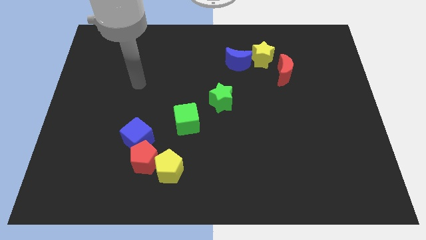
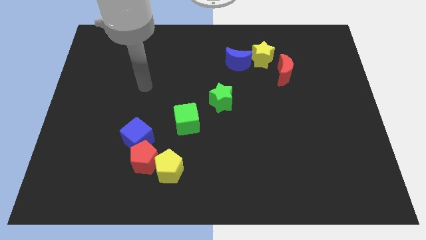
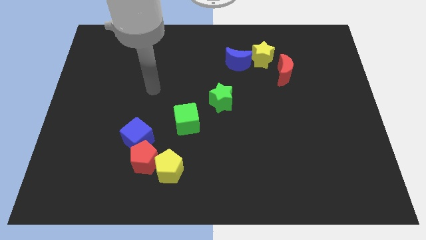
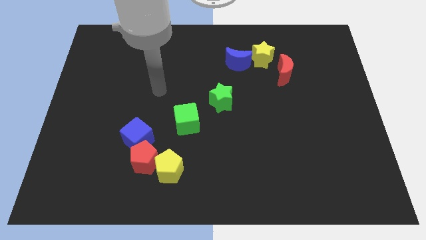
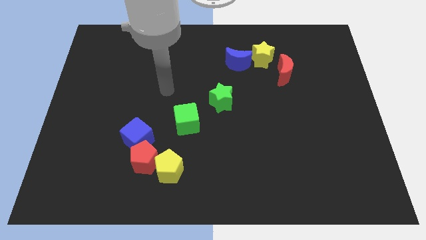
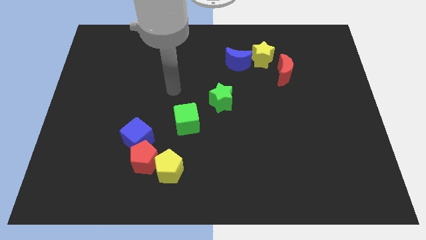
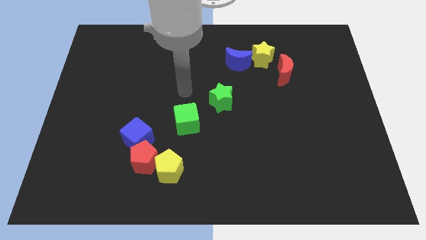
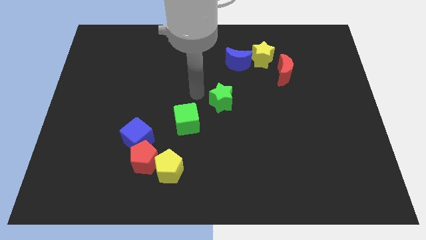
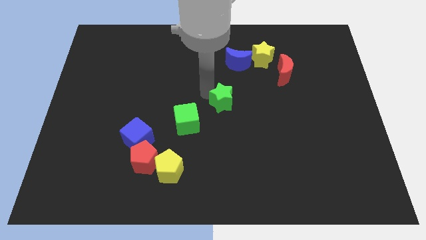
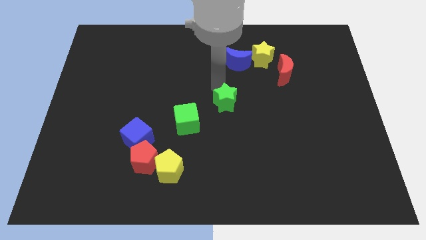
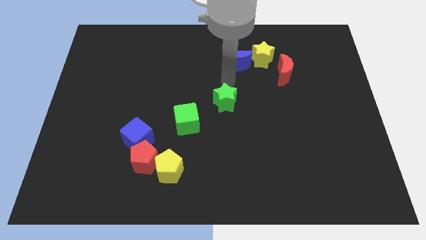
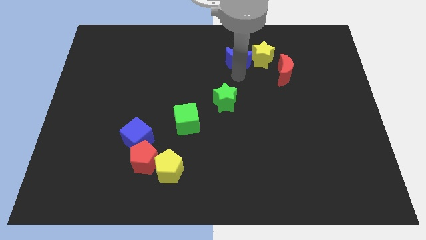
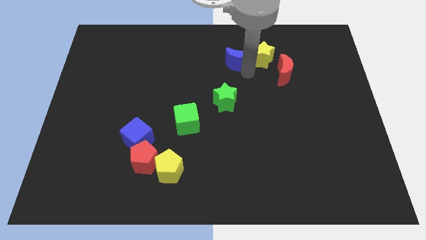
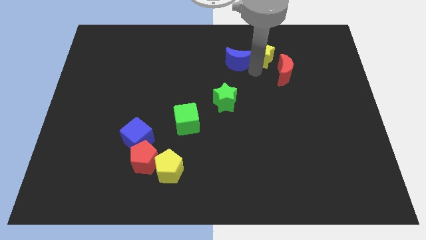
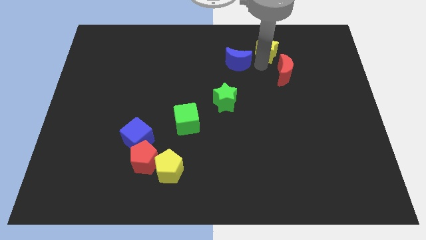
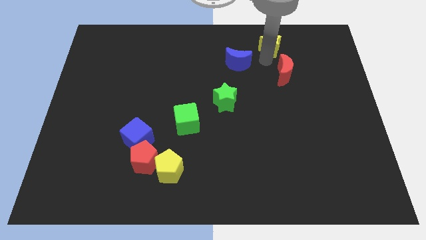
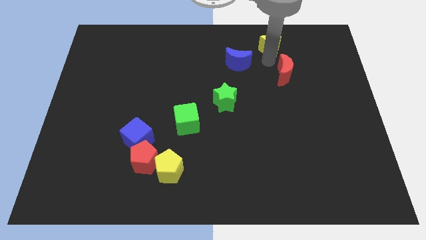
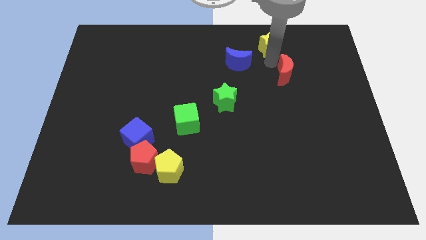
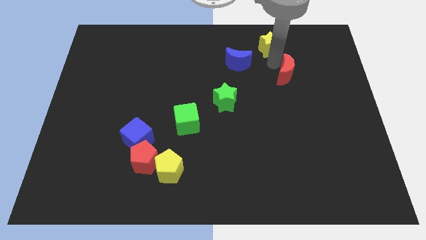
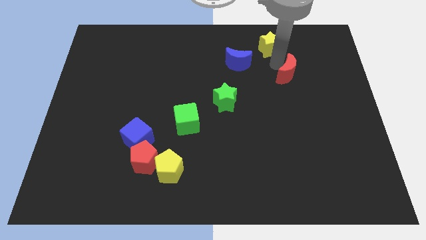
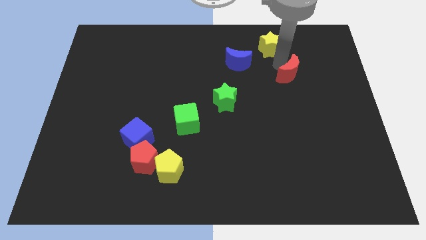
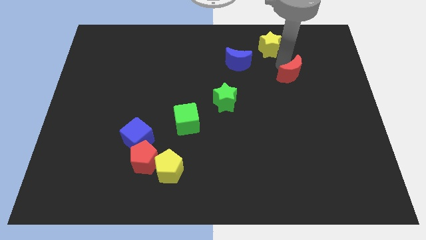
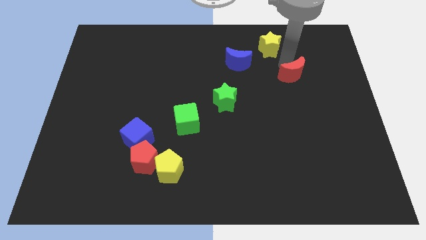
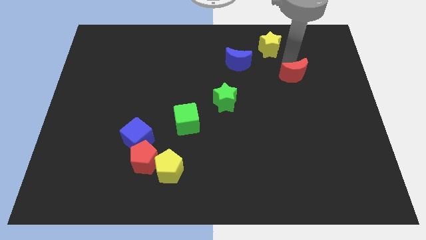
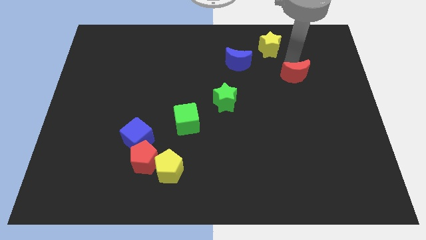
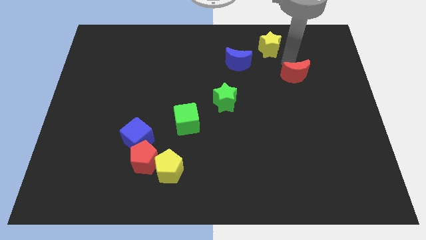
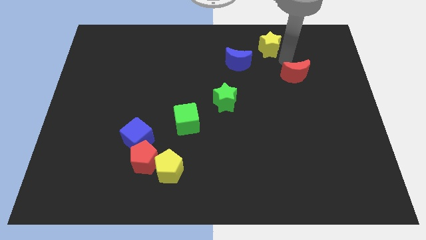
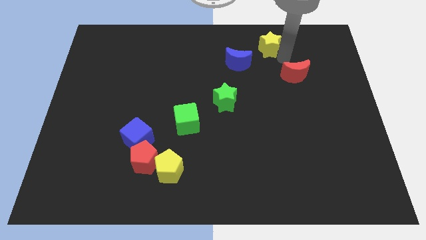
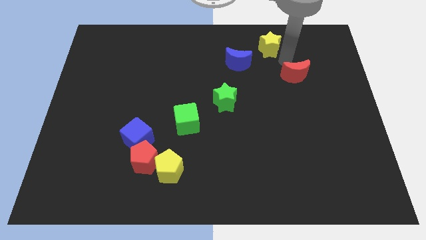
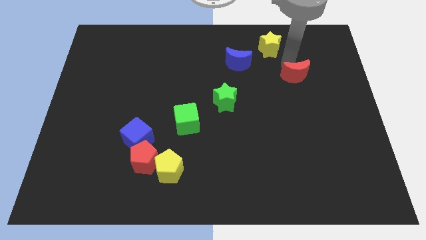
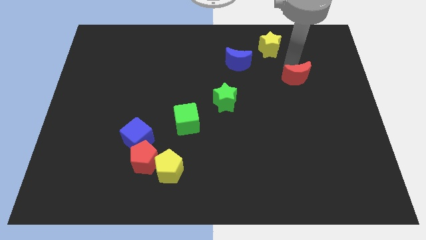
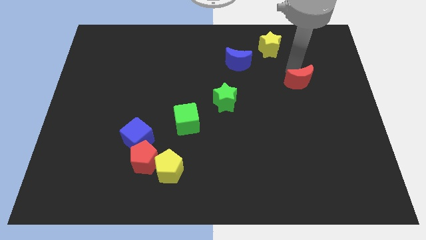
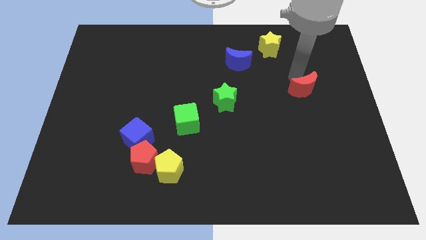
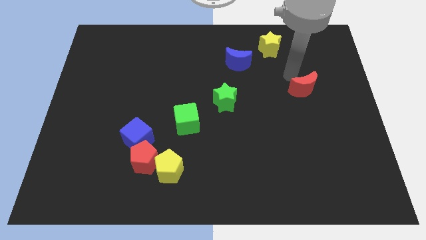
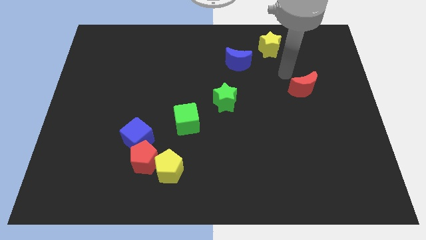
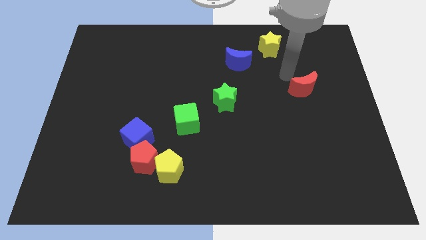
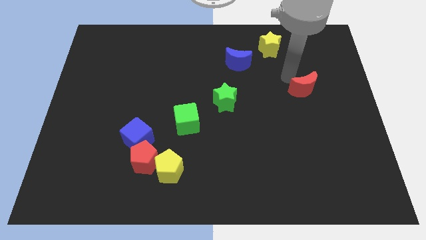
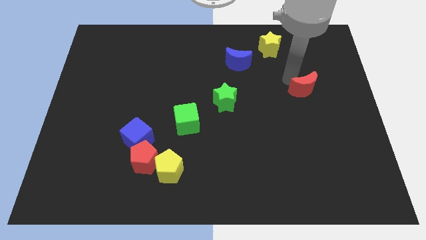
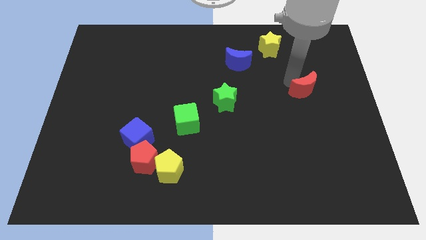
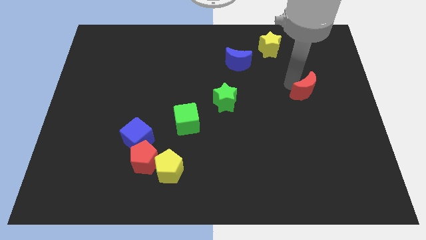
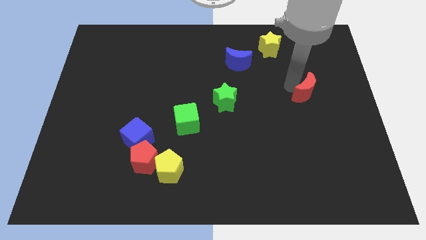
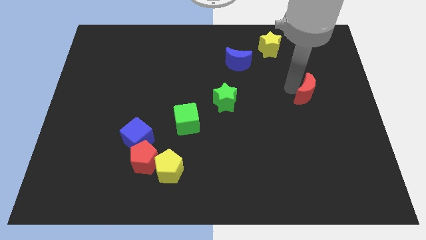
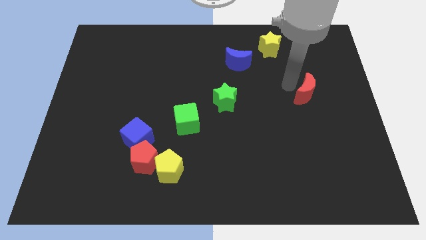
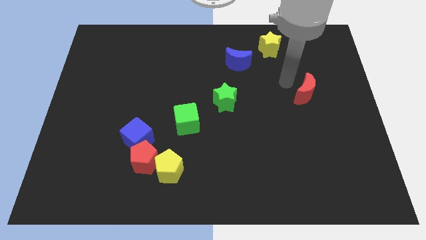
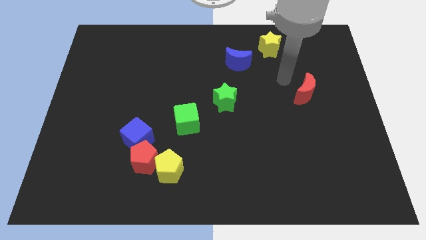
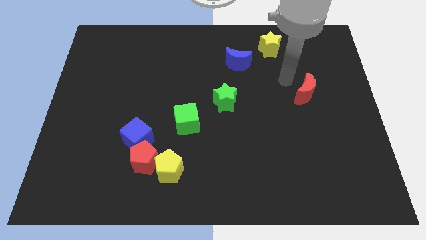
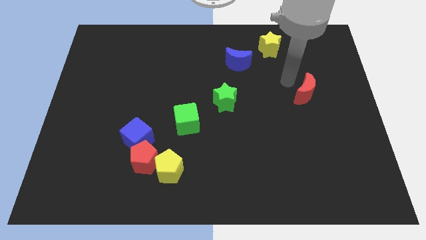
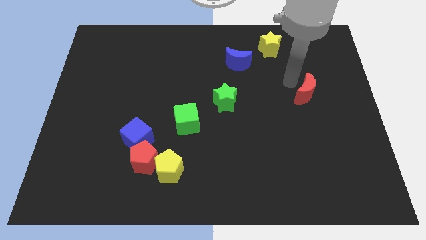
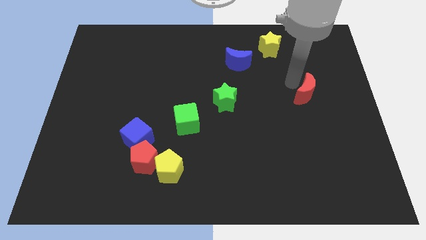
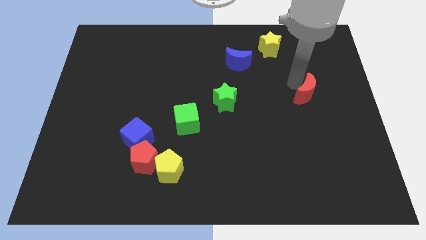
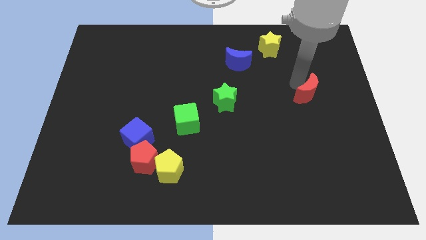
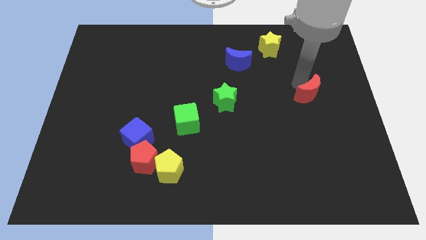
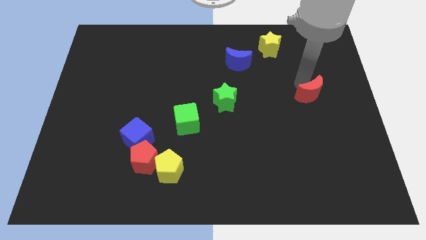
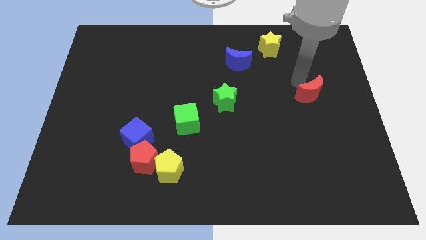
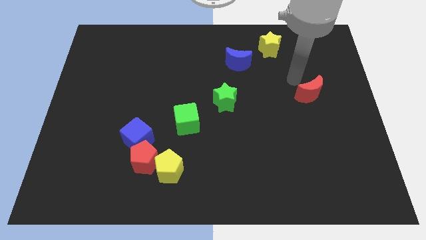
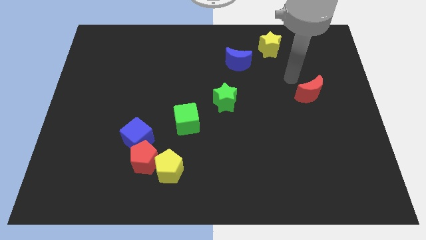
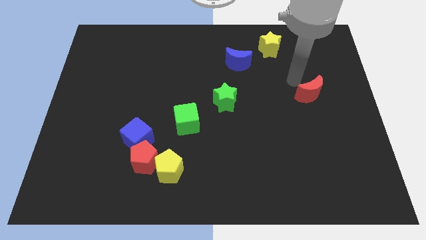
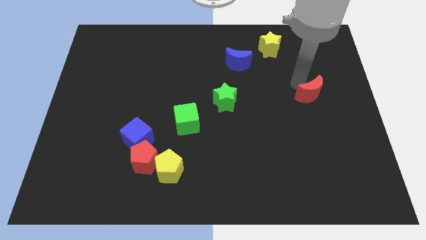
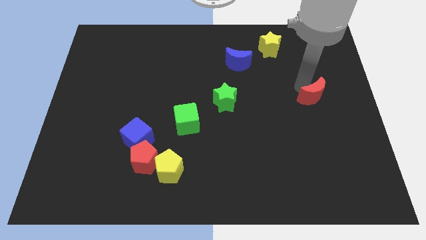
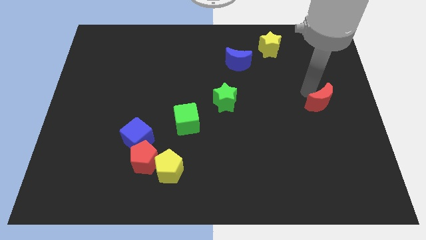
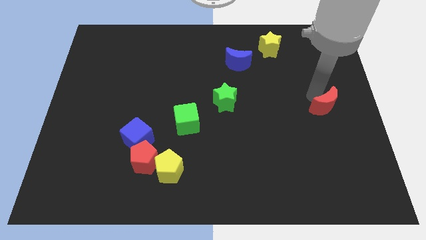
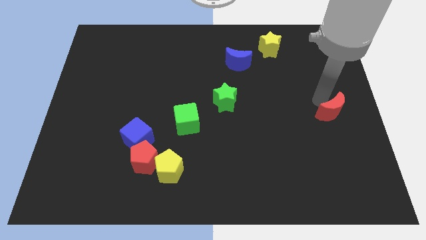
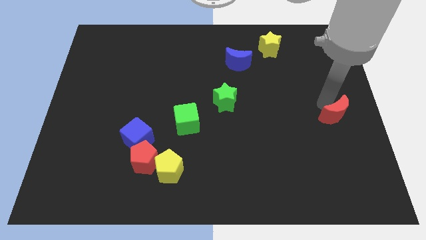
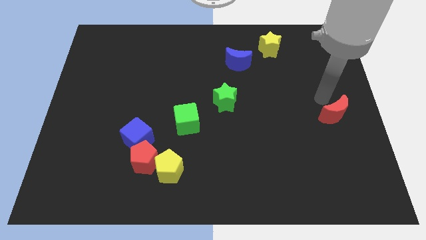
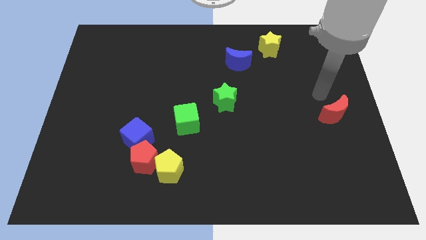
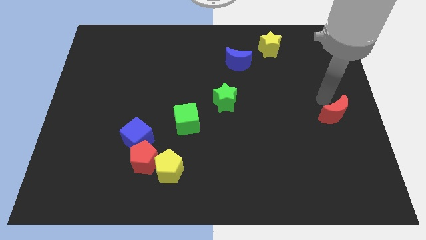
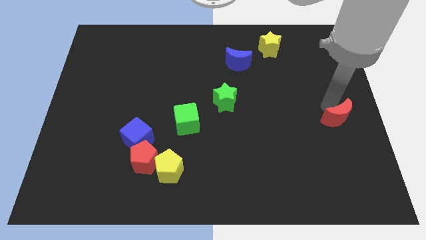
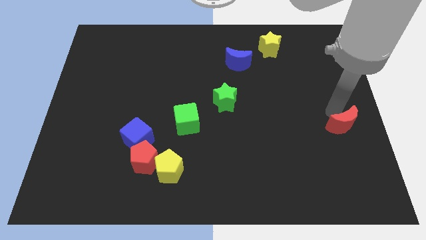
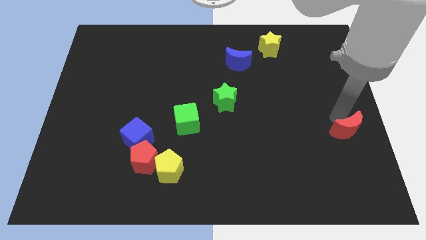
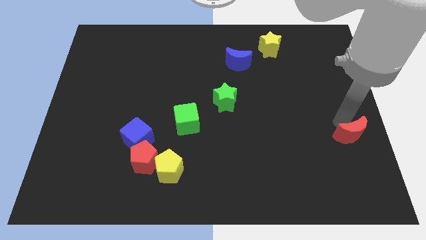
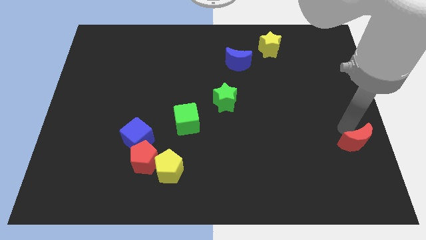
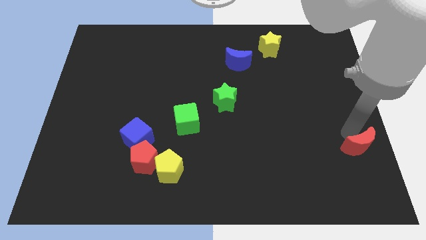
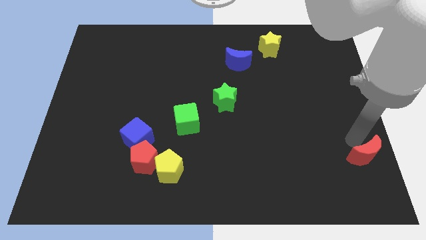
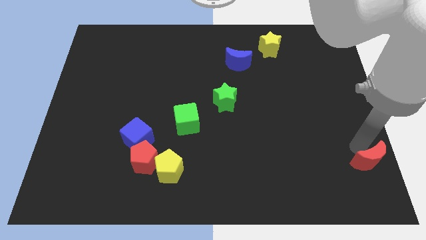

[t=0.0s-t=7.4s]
put the red moon to the bottom right corner
